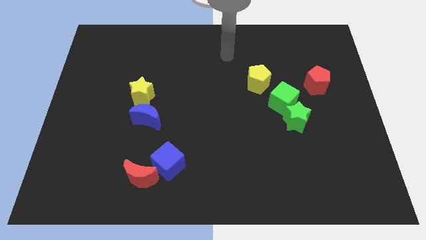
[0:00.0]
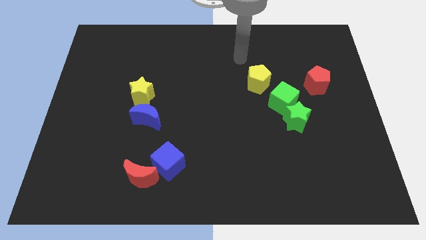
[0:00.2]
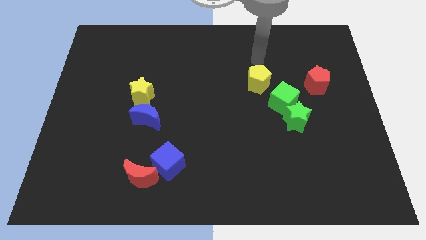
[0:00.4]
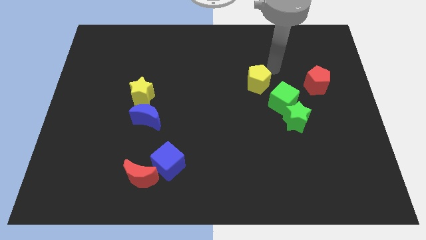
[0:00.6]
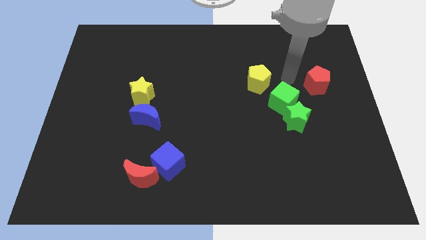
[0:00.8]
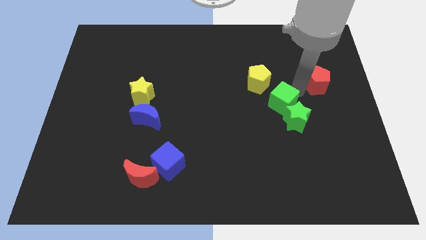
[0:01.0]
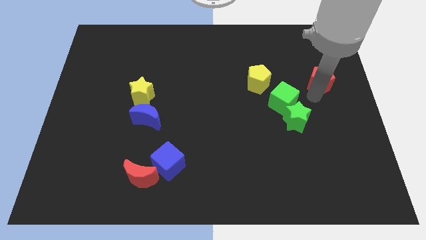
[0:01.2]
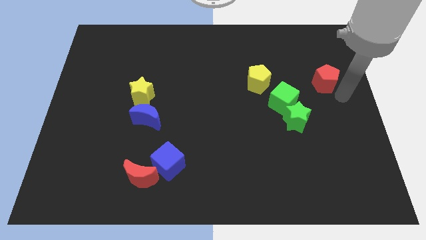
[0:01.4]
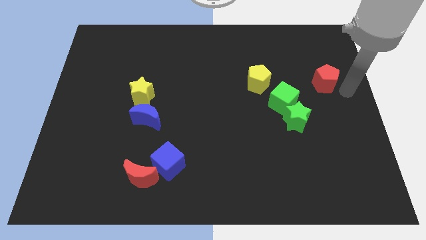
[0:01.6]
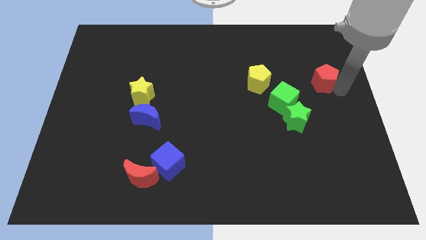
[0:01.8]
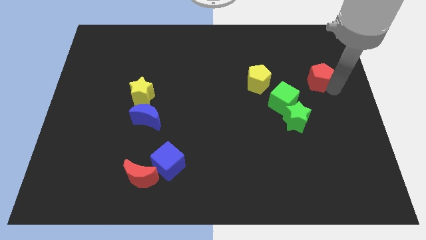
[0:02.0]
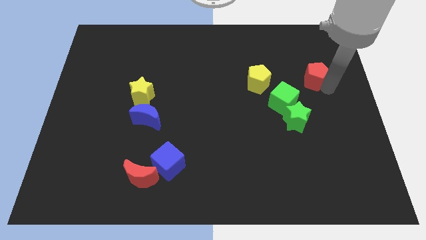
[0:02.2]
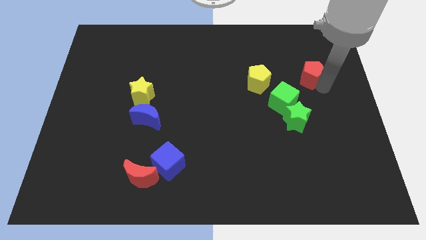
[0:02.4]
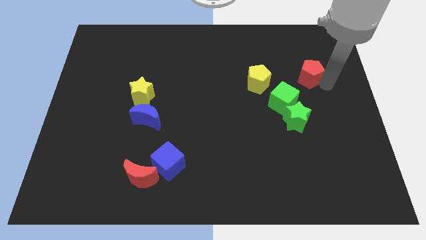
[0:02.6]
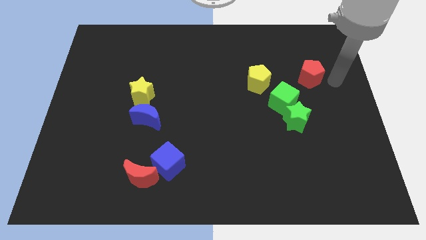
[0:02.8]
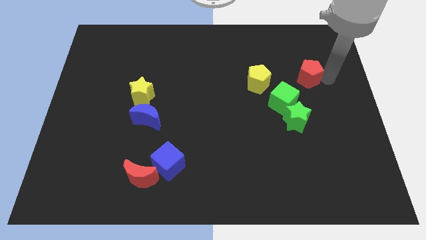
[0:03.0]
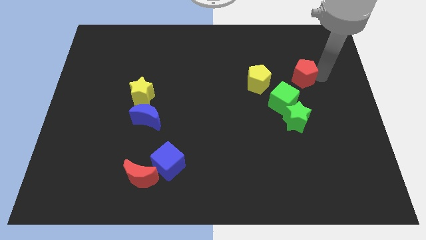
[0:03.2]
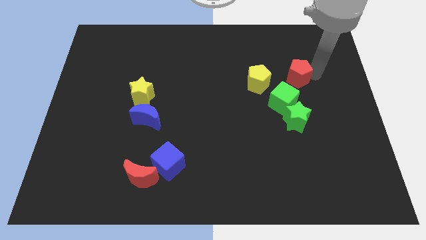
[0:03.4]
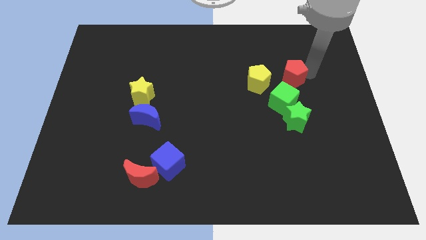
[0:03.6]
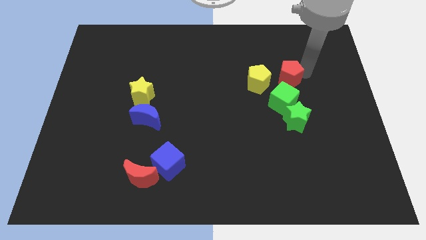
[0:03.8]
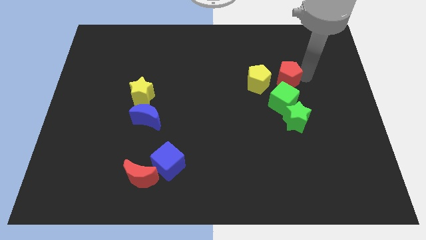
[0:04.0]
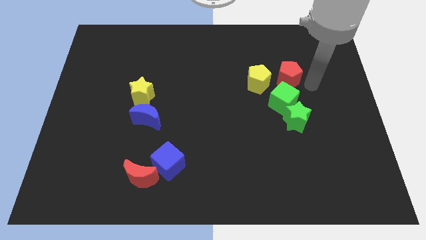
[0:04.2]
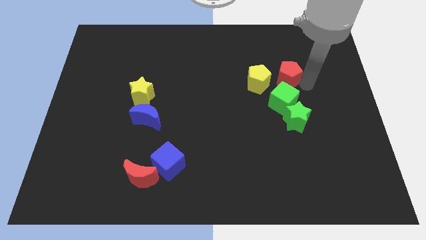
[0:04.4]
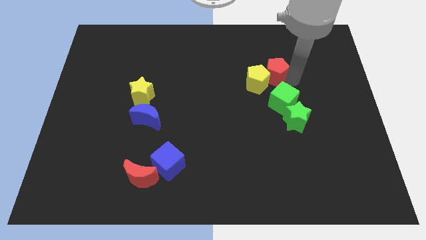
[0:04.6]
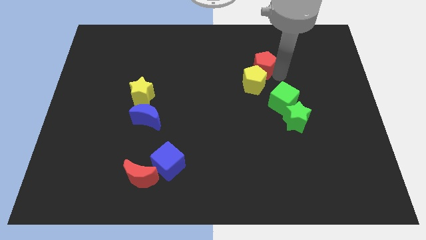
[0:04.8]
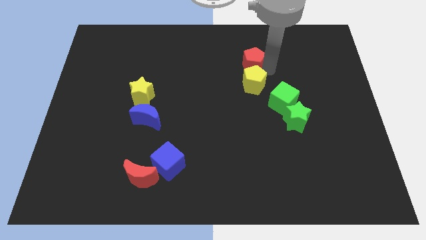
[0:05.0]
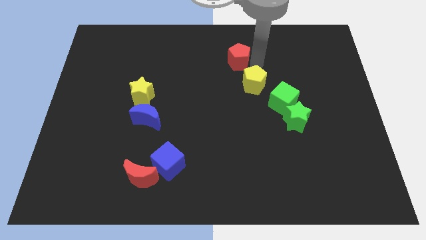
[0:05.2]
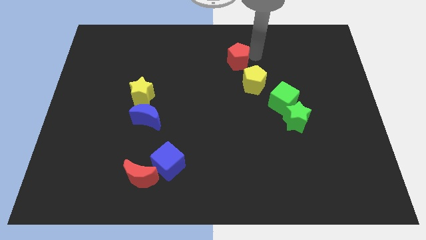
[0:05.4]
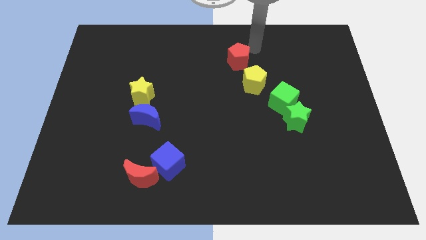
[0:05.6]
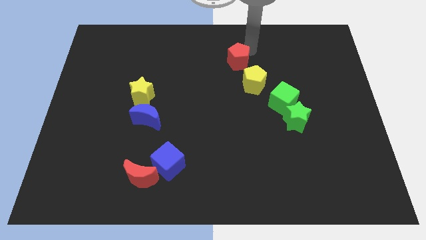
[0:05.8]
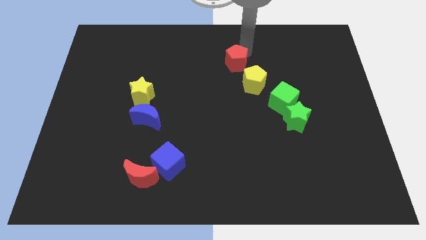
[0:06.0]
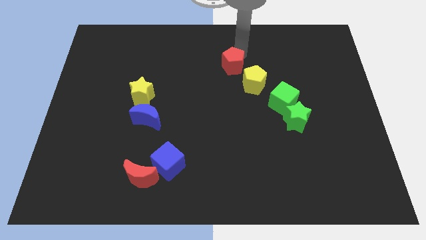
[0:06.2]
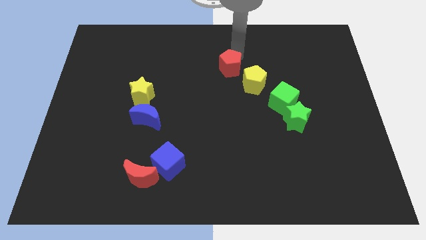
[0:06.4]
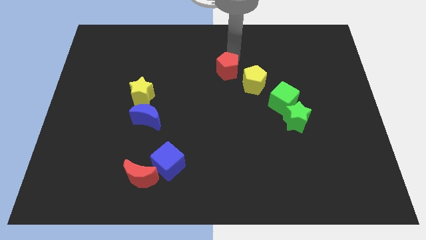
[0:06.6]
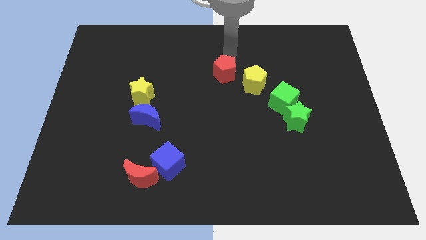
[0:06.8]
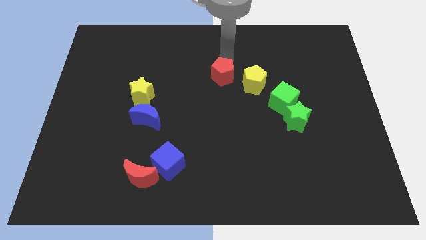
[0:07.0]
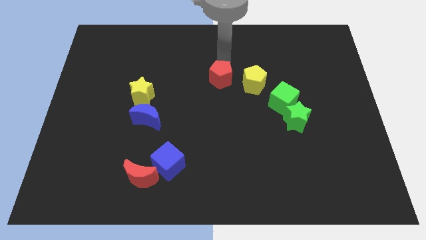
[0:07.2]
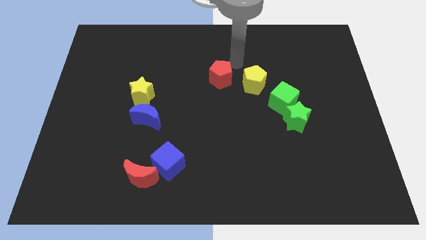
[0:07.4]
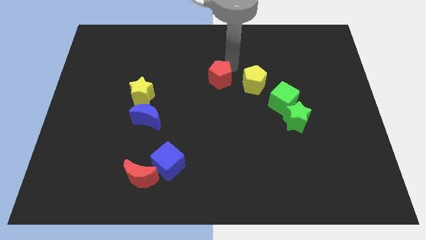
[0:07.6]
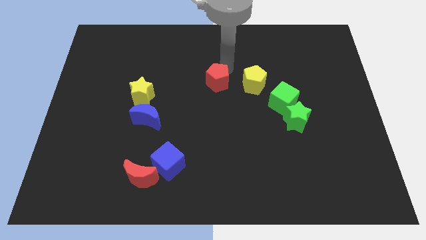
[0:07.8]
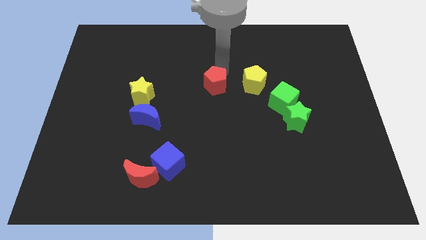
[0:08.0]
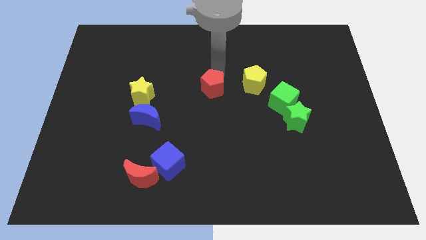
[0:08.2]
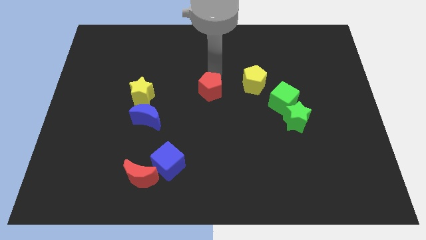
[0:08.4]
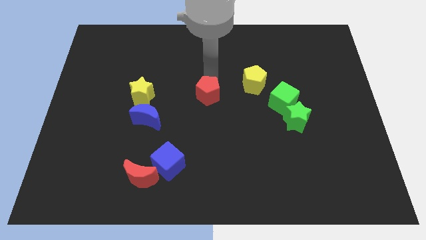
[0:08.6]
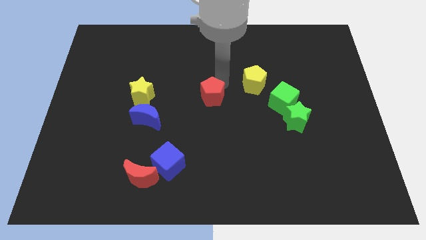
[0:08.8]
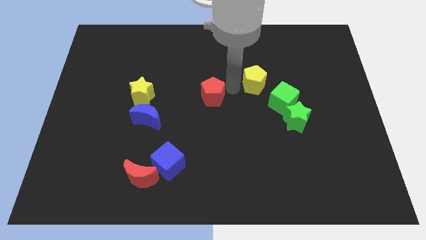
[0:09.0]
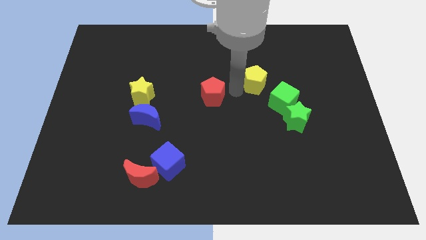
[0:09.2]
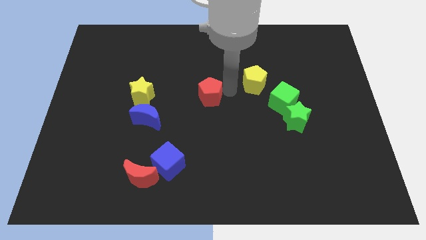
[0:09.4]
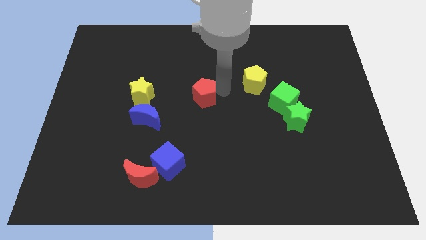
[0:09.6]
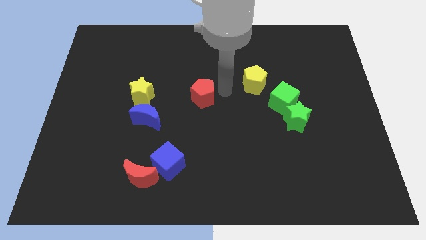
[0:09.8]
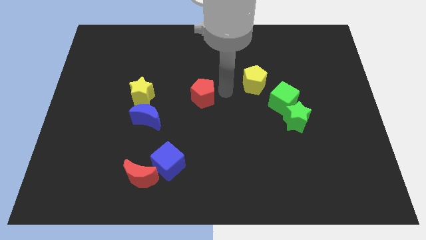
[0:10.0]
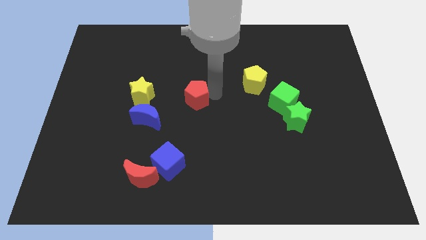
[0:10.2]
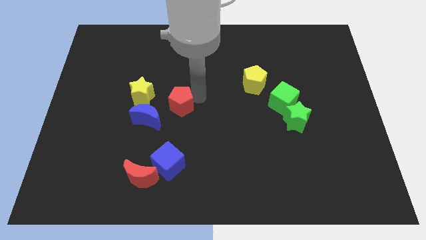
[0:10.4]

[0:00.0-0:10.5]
put the red pentagon to the bottom right of the yellow star

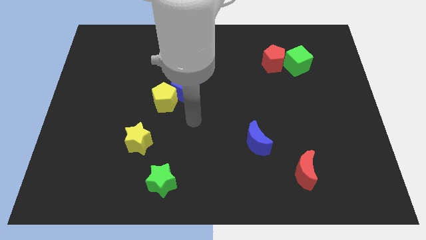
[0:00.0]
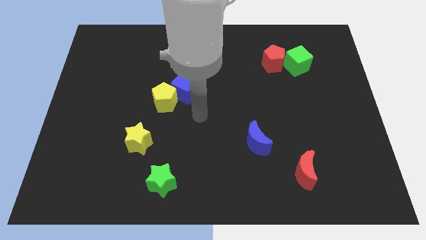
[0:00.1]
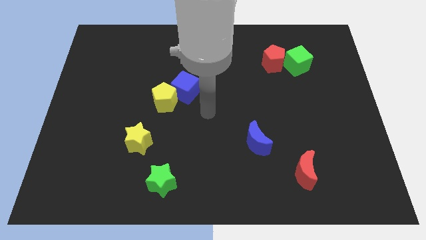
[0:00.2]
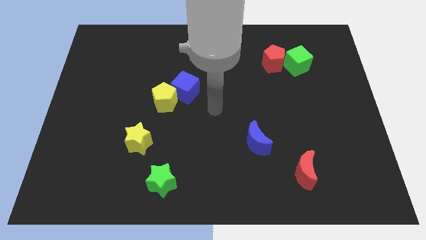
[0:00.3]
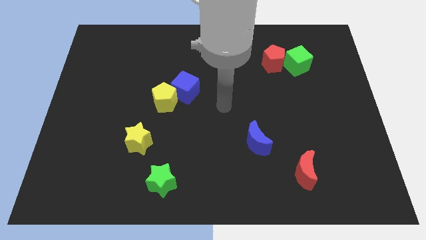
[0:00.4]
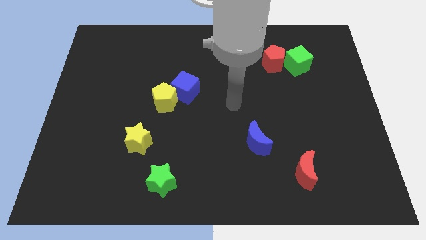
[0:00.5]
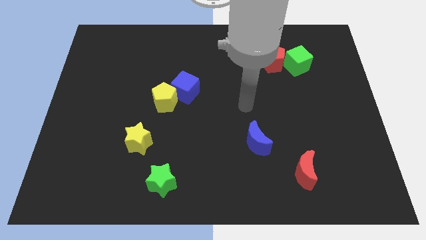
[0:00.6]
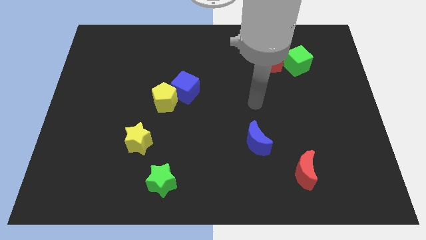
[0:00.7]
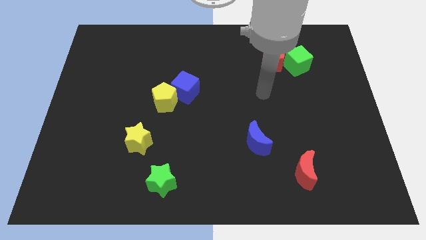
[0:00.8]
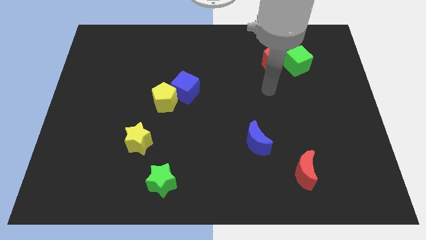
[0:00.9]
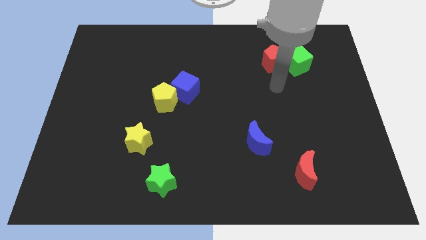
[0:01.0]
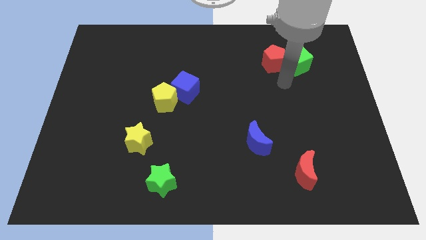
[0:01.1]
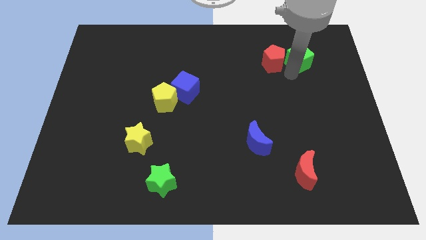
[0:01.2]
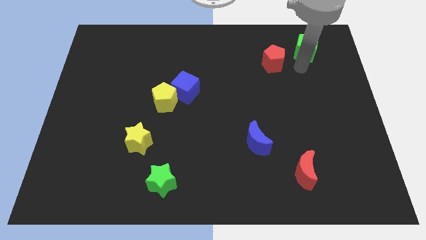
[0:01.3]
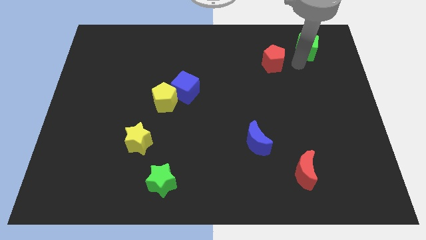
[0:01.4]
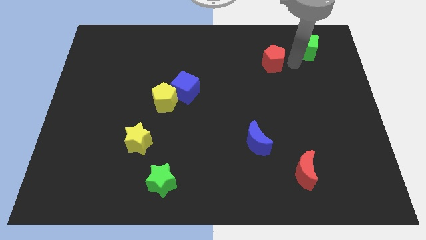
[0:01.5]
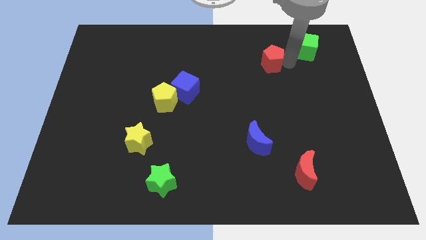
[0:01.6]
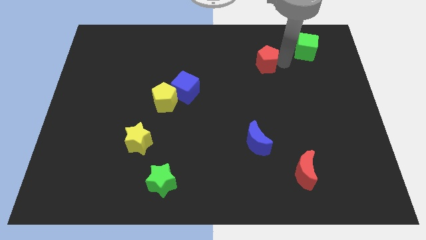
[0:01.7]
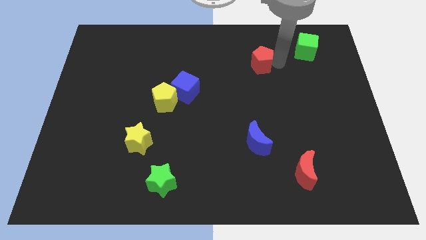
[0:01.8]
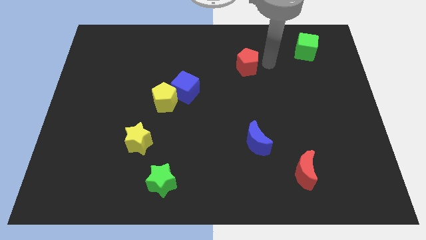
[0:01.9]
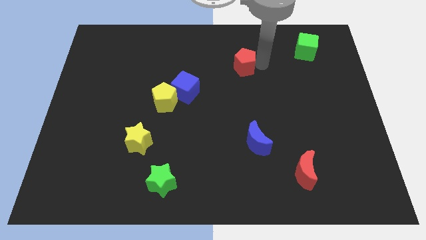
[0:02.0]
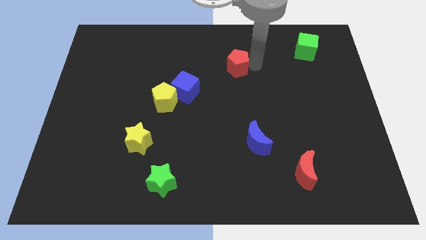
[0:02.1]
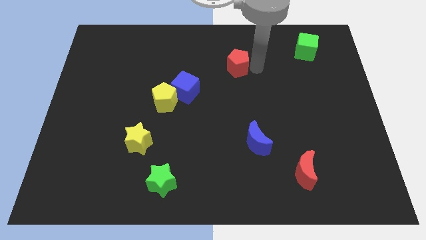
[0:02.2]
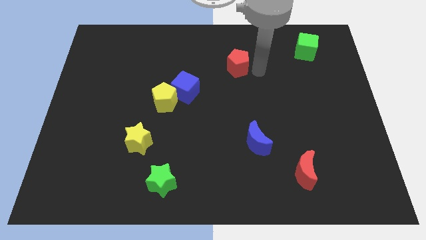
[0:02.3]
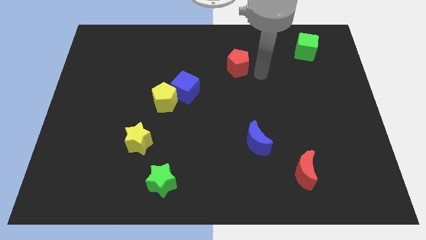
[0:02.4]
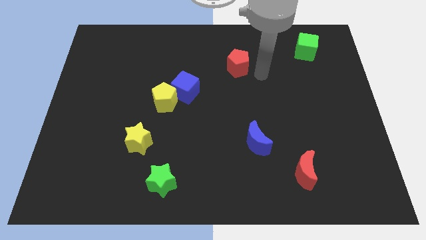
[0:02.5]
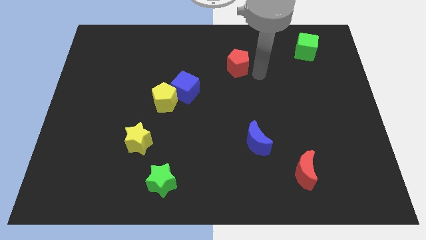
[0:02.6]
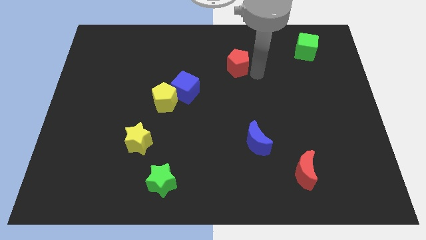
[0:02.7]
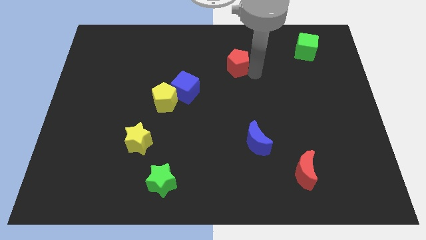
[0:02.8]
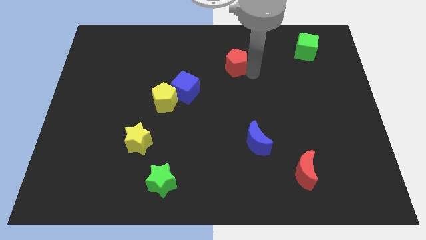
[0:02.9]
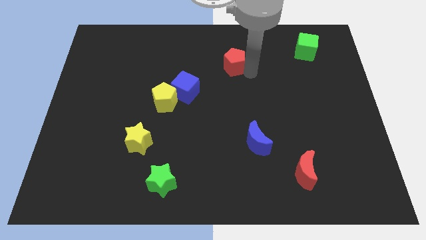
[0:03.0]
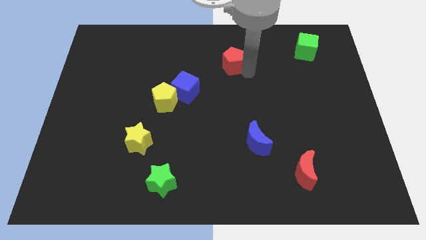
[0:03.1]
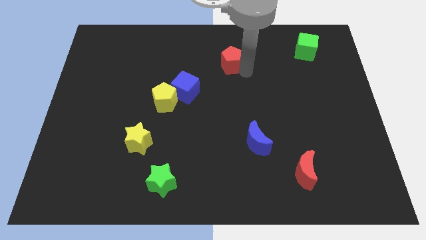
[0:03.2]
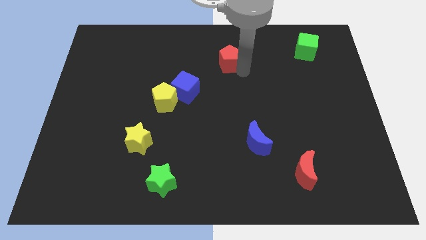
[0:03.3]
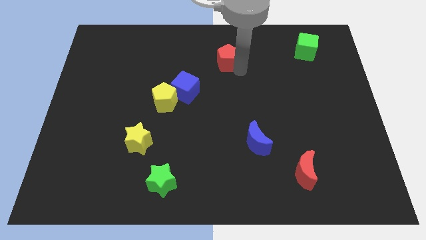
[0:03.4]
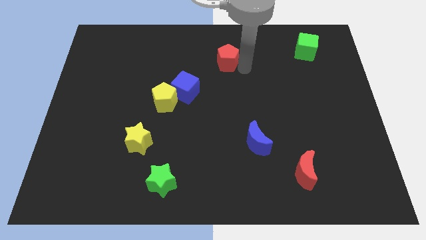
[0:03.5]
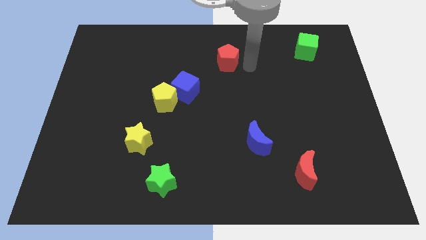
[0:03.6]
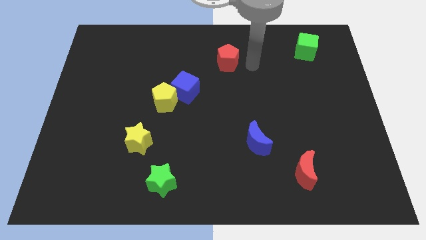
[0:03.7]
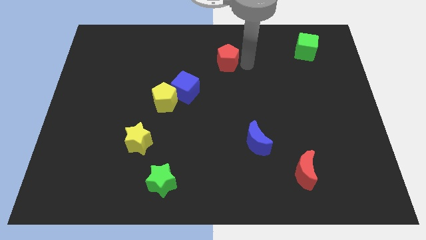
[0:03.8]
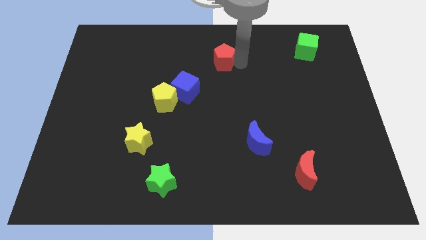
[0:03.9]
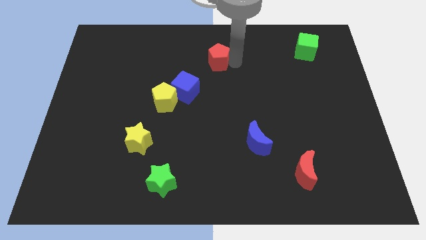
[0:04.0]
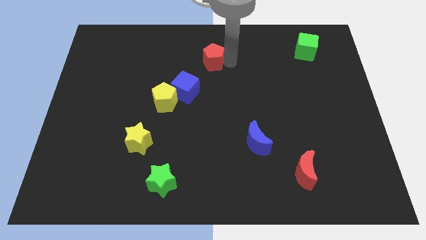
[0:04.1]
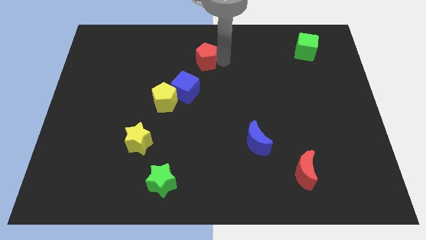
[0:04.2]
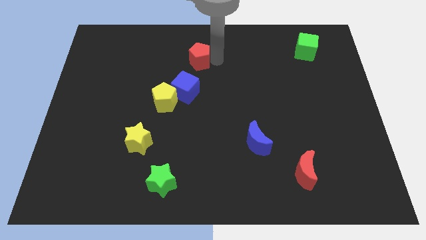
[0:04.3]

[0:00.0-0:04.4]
move the red pentagon to the top side of the blue cube
